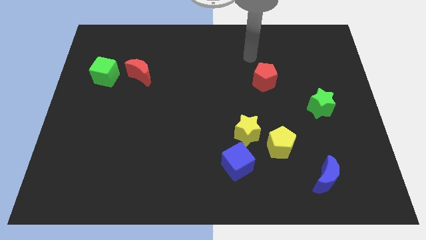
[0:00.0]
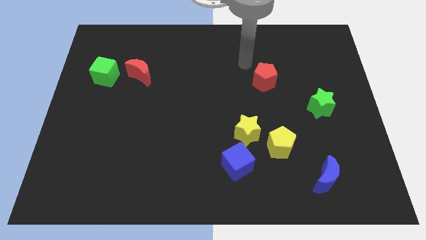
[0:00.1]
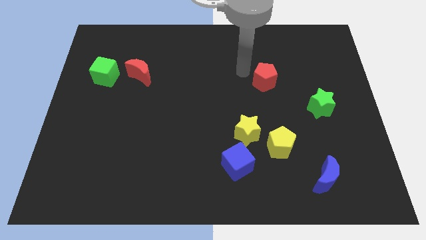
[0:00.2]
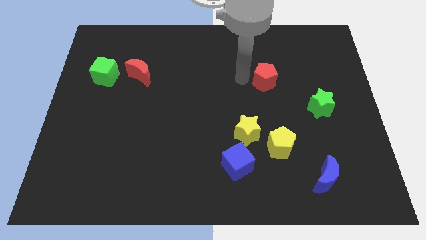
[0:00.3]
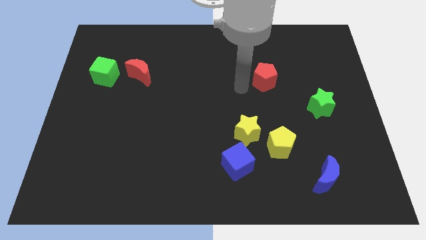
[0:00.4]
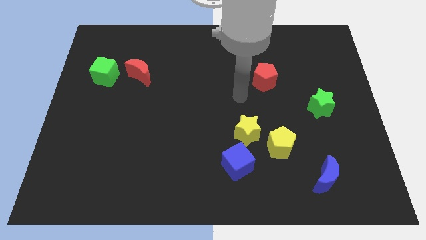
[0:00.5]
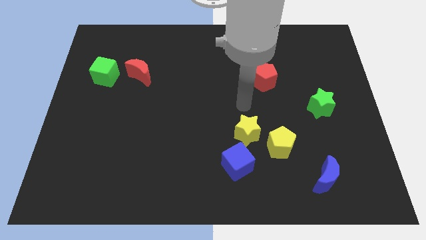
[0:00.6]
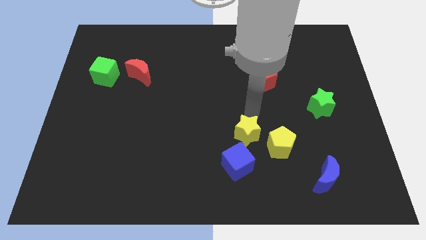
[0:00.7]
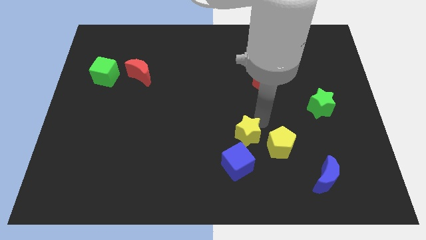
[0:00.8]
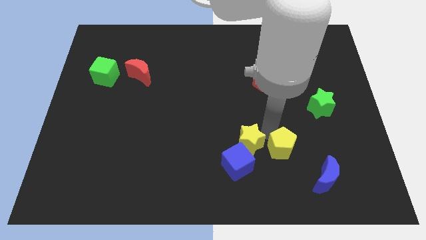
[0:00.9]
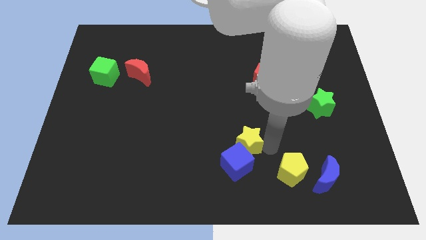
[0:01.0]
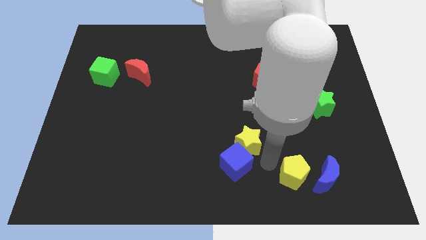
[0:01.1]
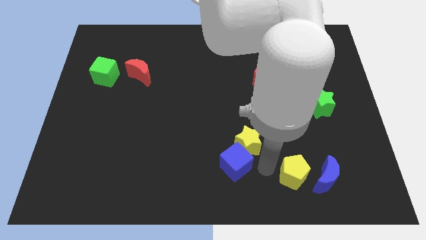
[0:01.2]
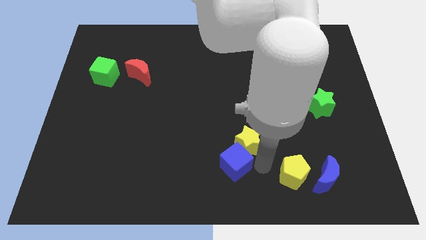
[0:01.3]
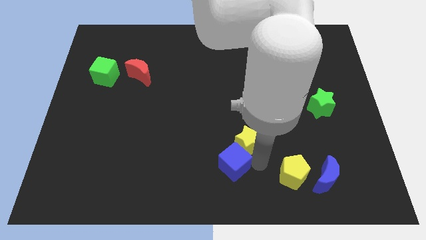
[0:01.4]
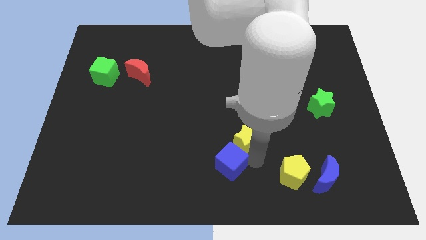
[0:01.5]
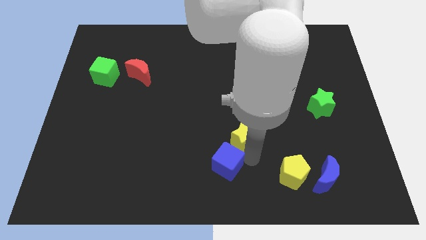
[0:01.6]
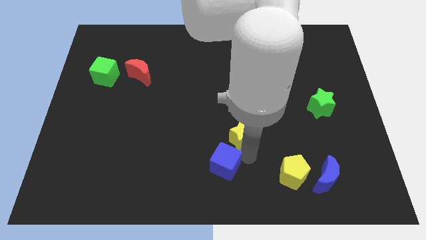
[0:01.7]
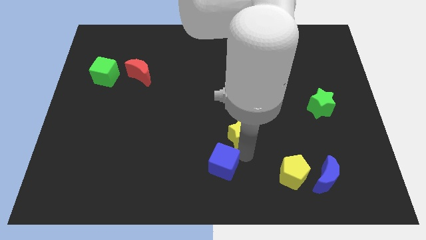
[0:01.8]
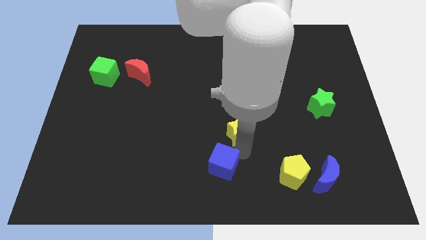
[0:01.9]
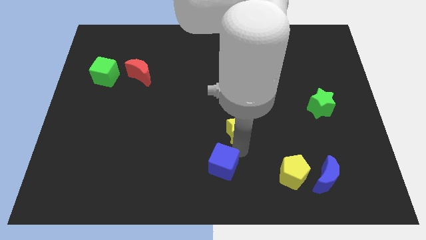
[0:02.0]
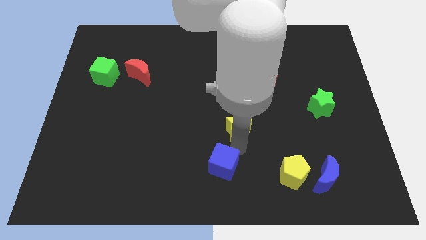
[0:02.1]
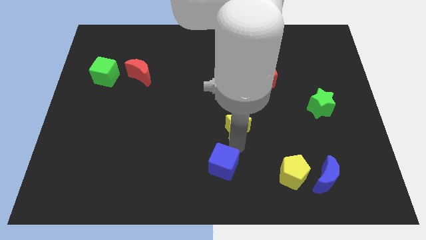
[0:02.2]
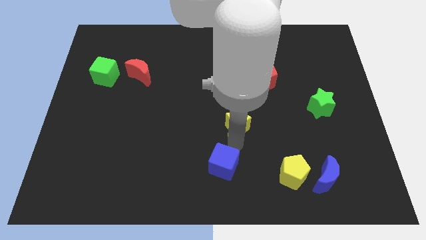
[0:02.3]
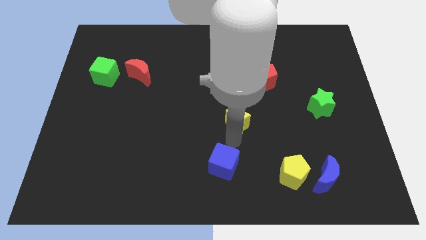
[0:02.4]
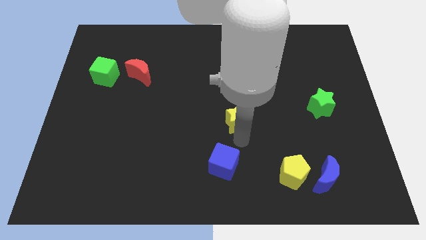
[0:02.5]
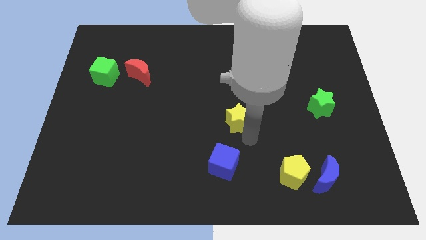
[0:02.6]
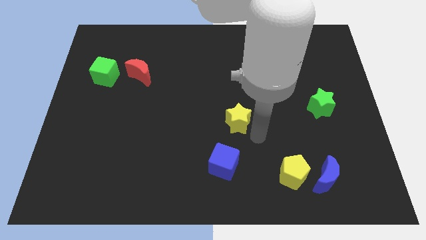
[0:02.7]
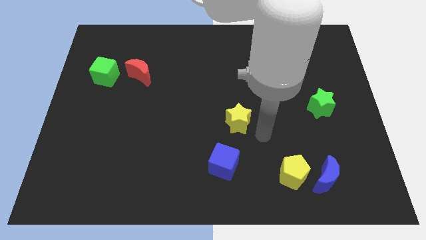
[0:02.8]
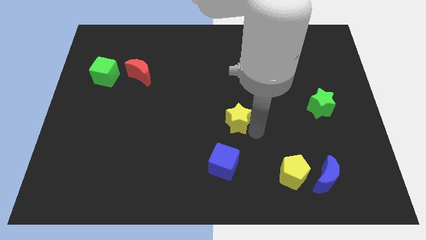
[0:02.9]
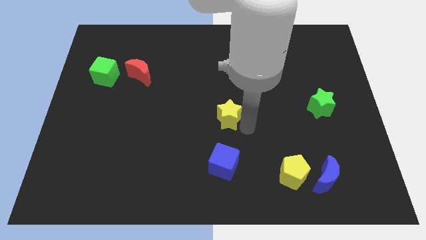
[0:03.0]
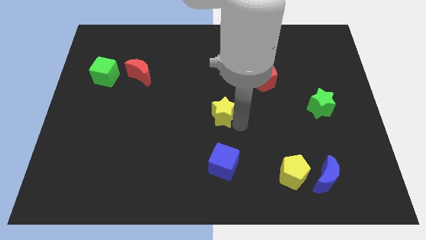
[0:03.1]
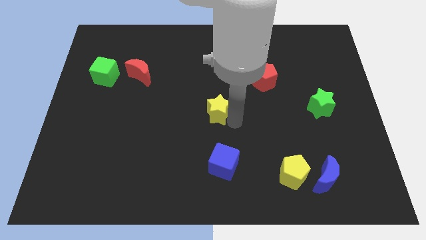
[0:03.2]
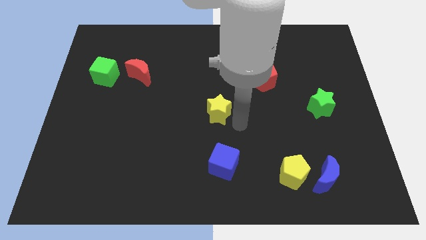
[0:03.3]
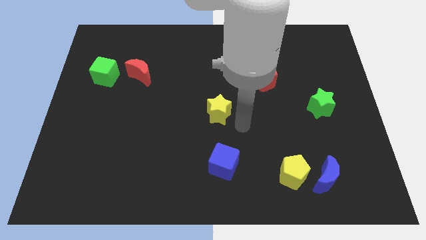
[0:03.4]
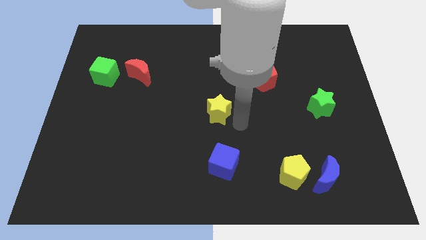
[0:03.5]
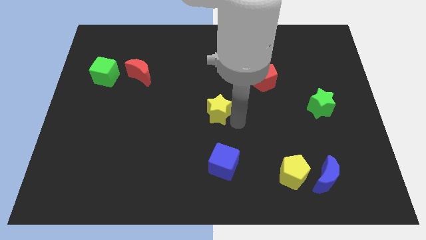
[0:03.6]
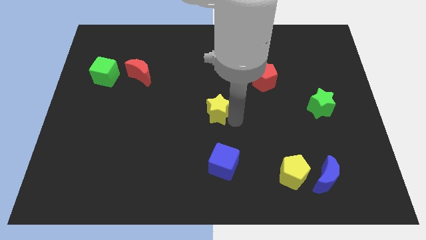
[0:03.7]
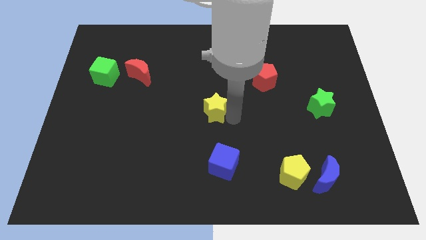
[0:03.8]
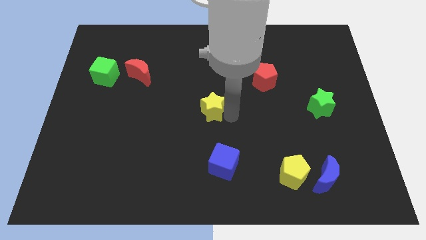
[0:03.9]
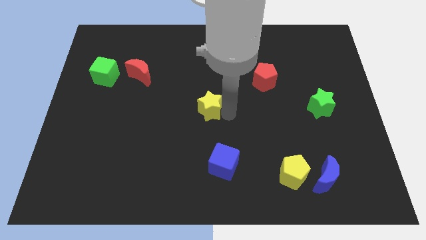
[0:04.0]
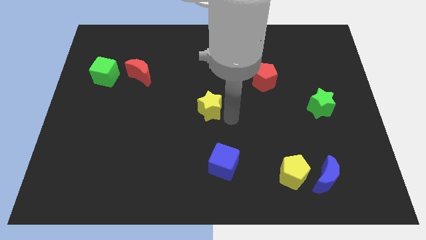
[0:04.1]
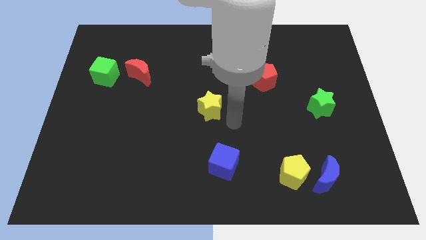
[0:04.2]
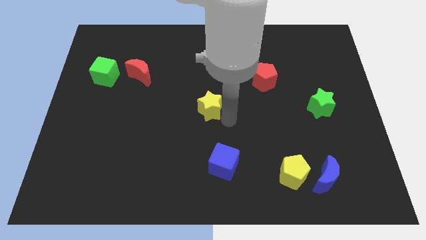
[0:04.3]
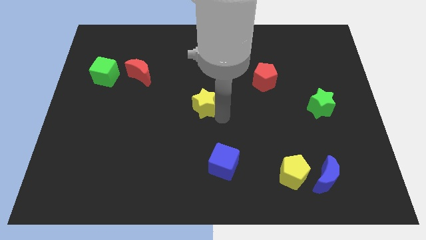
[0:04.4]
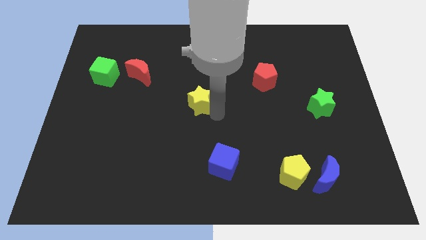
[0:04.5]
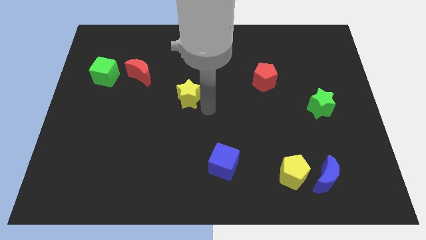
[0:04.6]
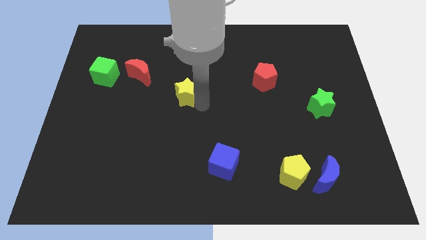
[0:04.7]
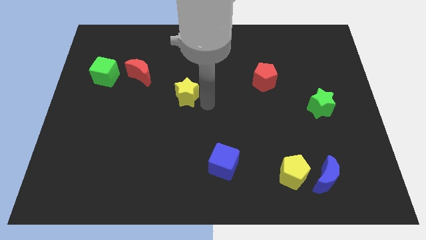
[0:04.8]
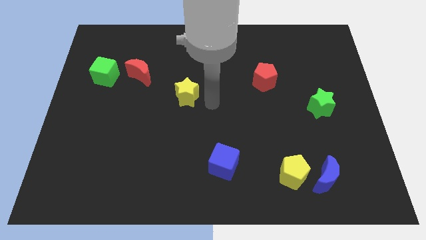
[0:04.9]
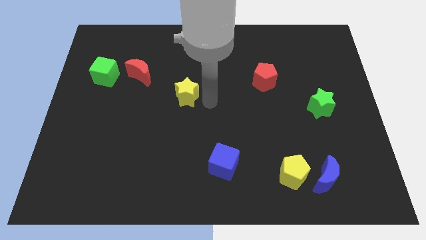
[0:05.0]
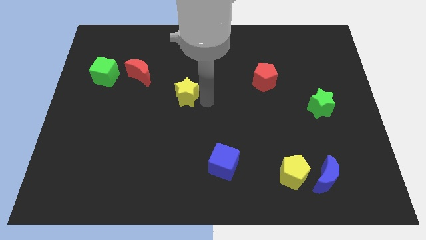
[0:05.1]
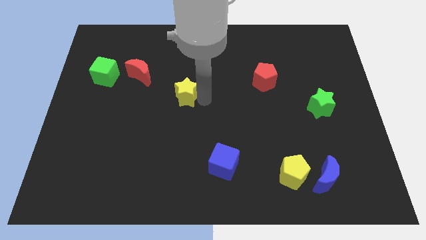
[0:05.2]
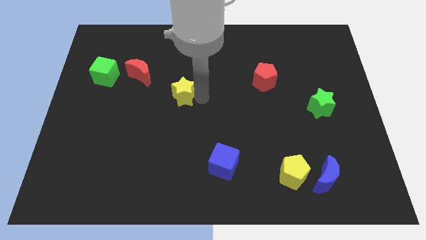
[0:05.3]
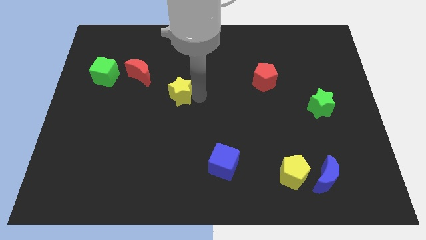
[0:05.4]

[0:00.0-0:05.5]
put the yellow star to the bottom right of the red moon

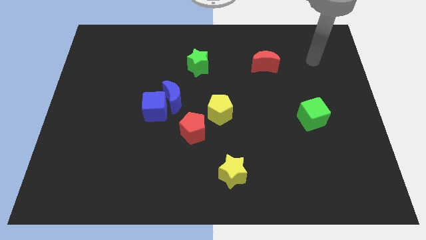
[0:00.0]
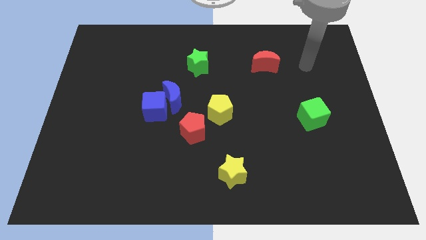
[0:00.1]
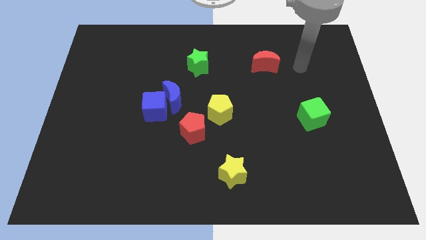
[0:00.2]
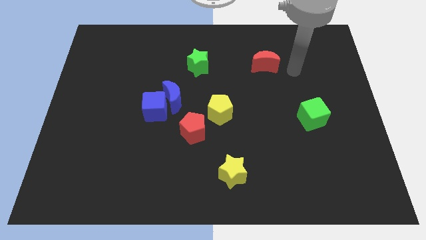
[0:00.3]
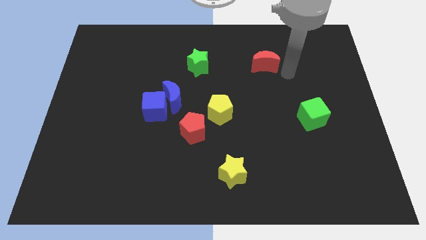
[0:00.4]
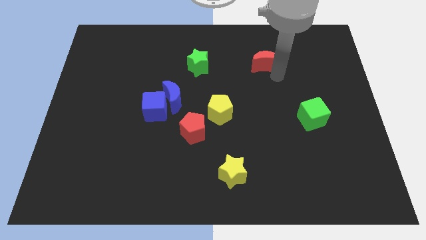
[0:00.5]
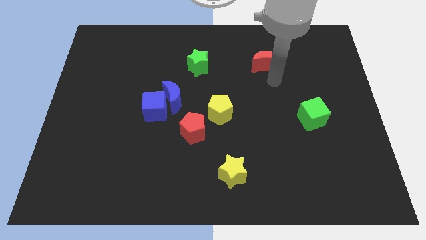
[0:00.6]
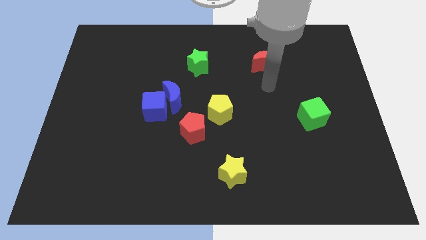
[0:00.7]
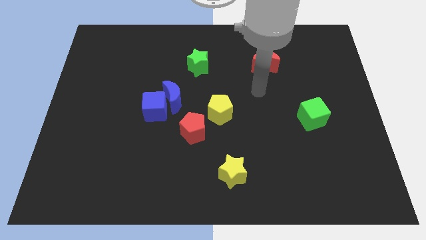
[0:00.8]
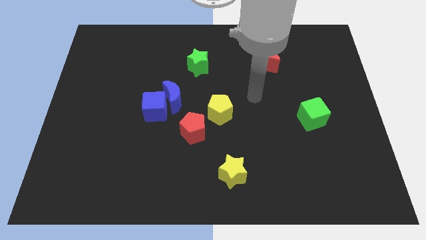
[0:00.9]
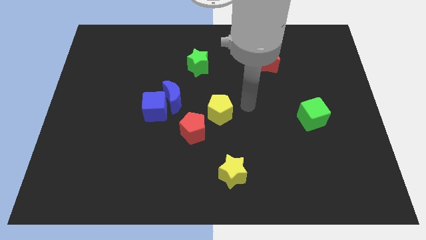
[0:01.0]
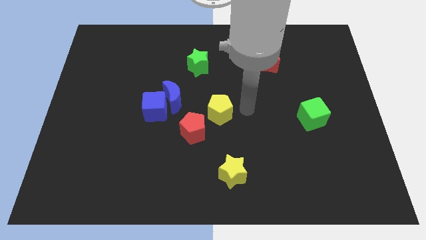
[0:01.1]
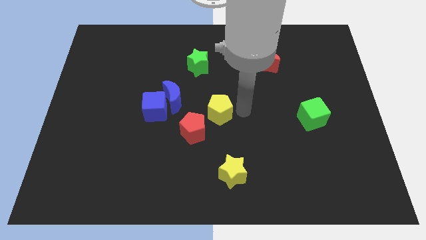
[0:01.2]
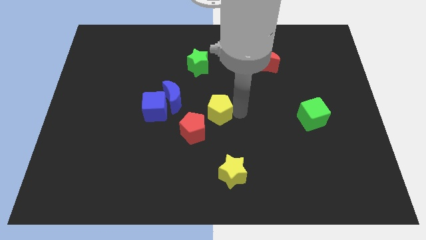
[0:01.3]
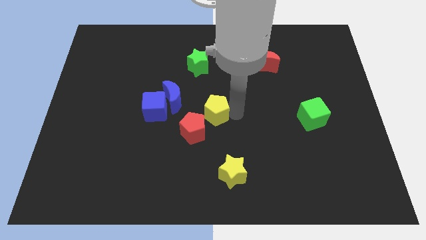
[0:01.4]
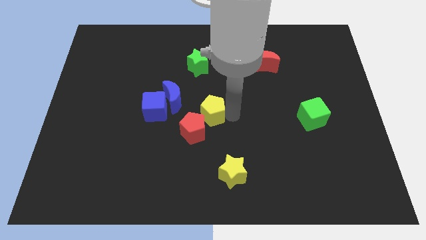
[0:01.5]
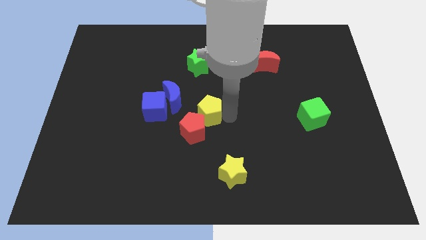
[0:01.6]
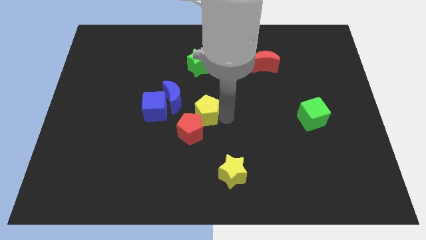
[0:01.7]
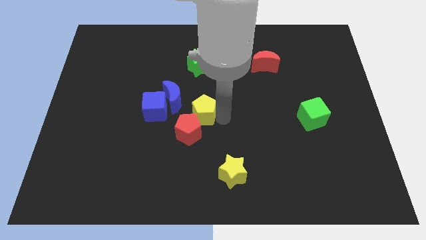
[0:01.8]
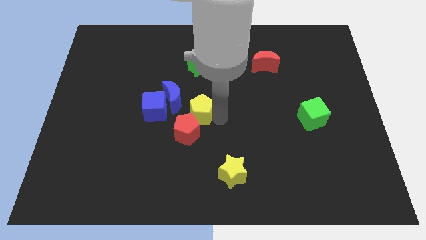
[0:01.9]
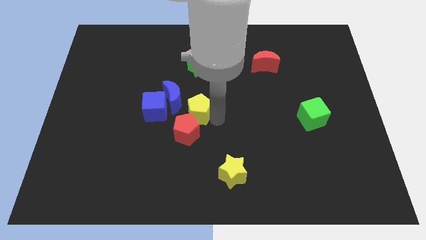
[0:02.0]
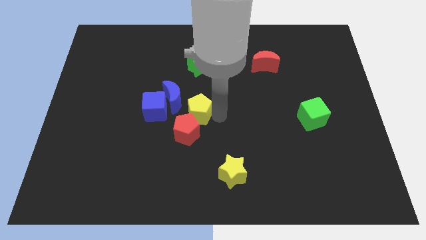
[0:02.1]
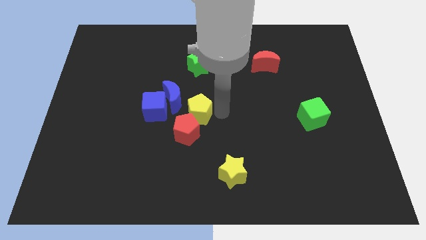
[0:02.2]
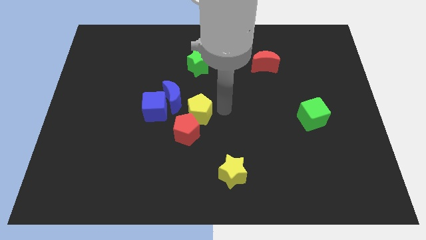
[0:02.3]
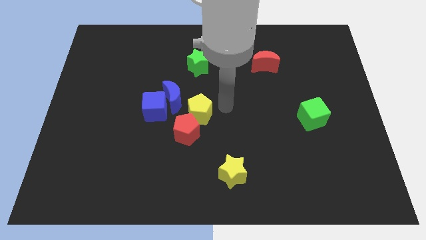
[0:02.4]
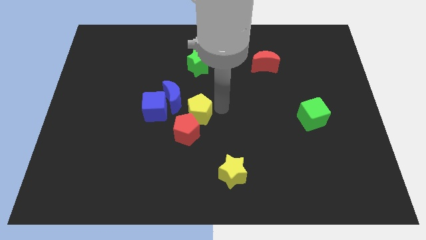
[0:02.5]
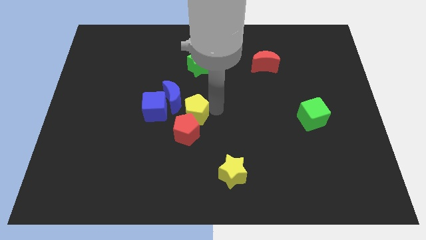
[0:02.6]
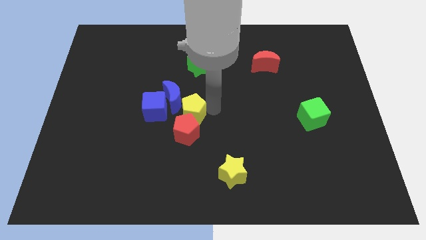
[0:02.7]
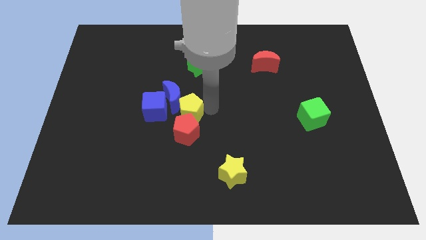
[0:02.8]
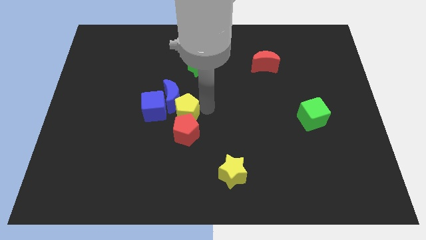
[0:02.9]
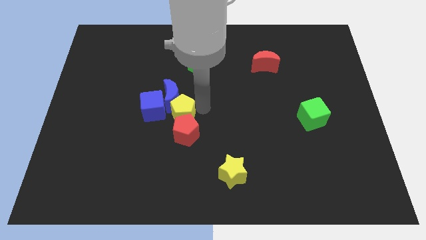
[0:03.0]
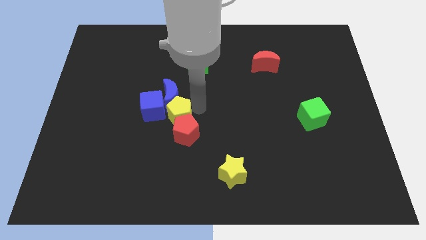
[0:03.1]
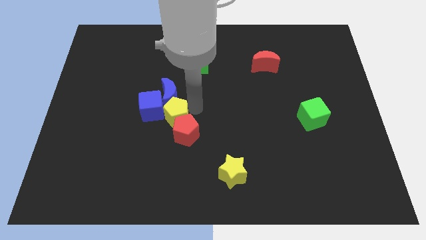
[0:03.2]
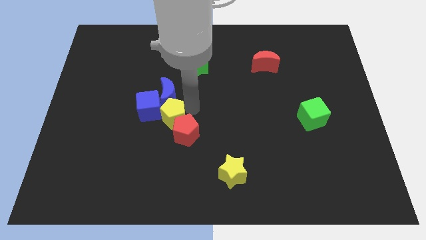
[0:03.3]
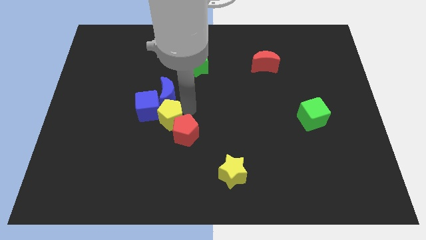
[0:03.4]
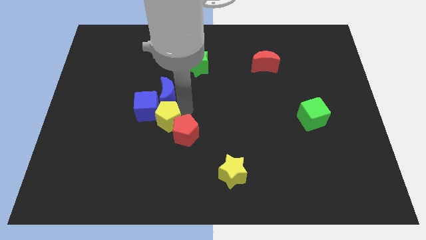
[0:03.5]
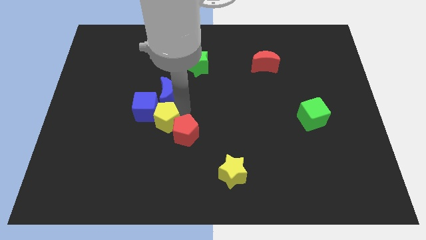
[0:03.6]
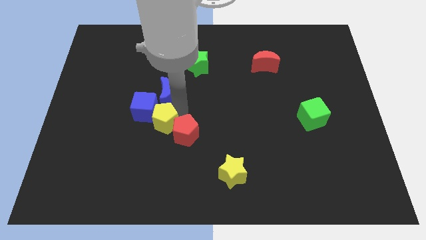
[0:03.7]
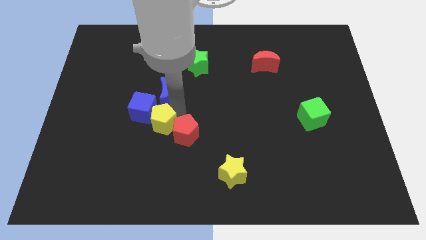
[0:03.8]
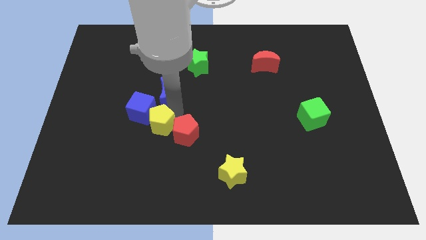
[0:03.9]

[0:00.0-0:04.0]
push the yellow pentagon to the bottom of the blue cube
